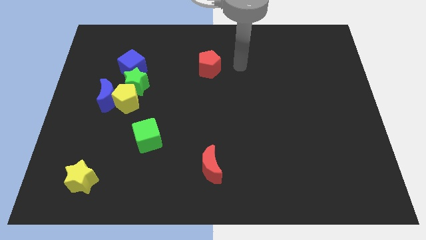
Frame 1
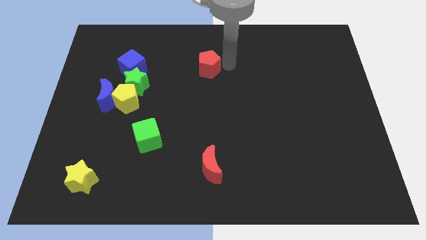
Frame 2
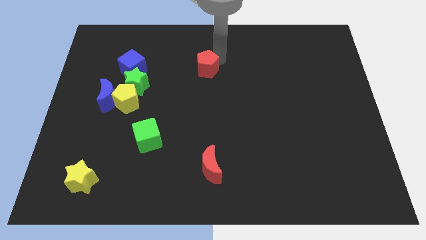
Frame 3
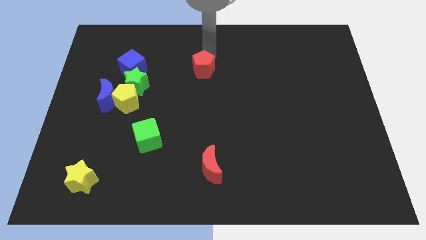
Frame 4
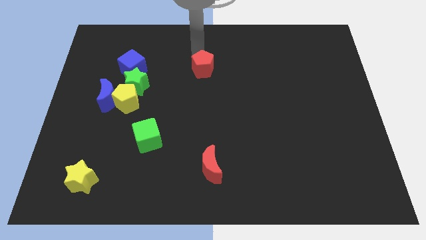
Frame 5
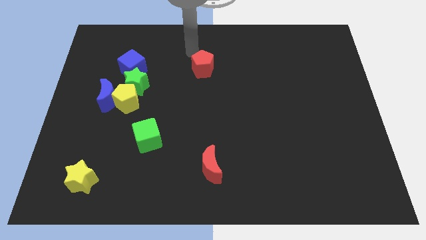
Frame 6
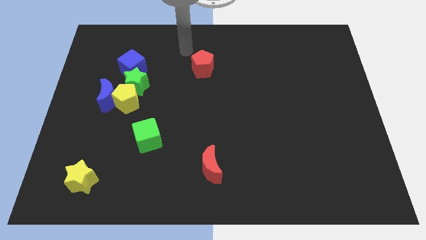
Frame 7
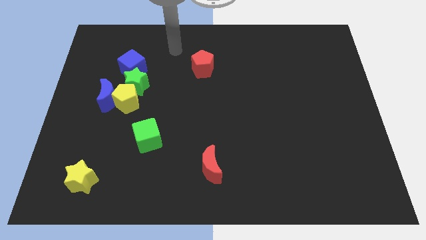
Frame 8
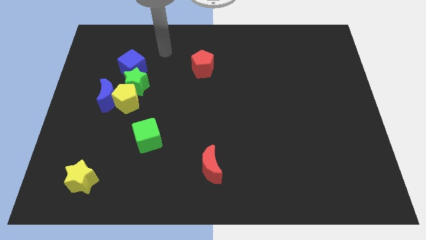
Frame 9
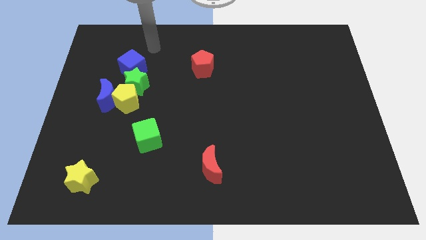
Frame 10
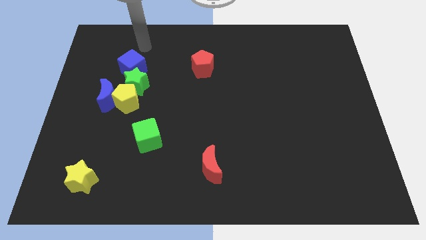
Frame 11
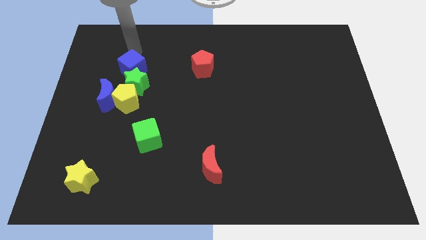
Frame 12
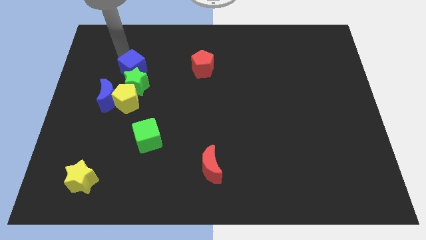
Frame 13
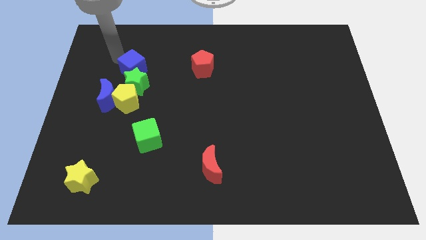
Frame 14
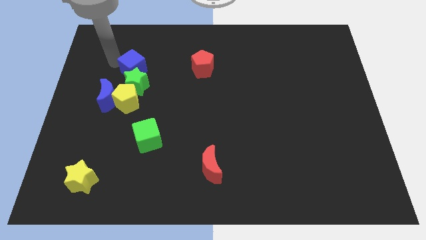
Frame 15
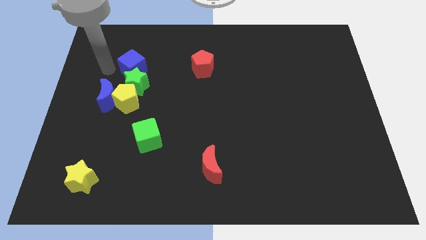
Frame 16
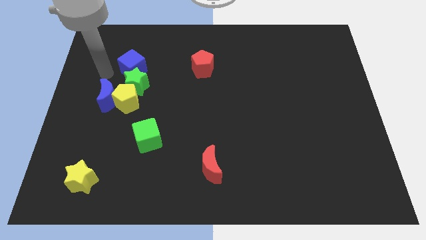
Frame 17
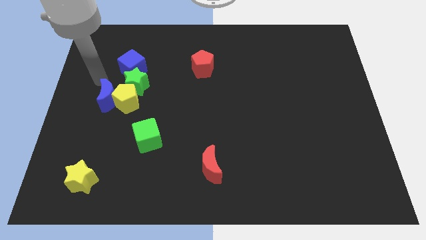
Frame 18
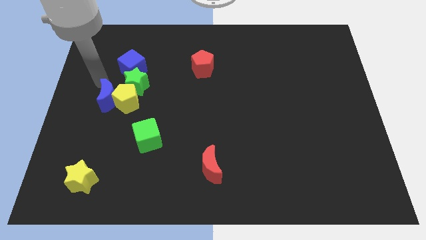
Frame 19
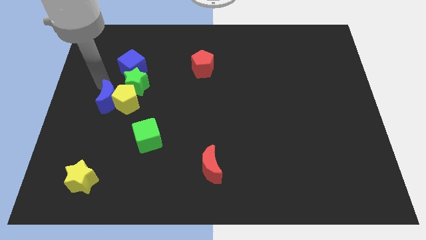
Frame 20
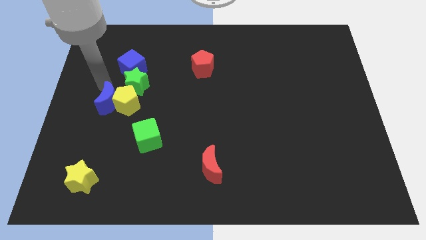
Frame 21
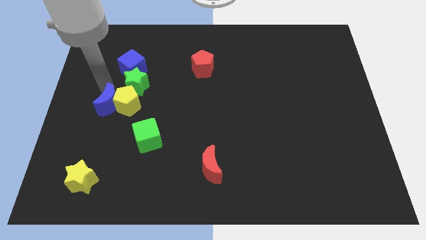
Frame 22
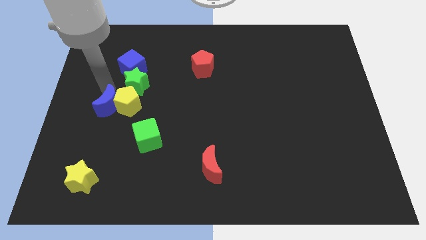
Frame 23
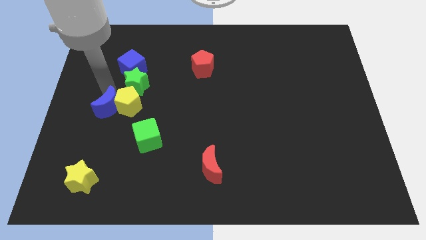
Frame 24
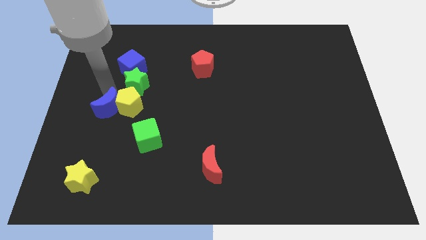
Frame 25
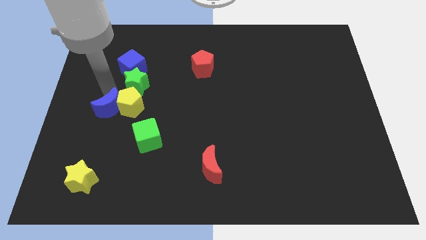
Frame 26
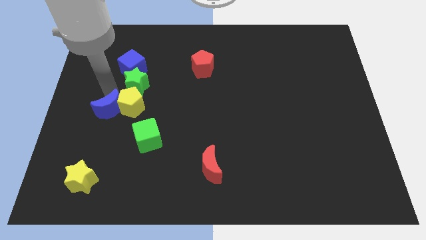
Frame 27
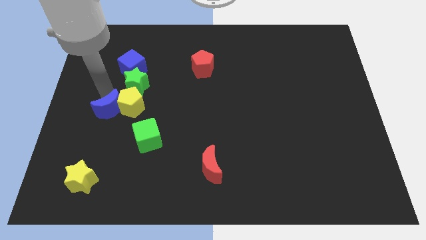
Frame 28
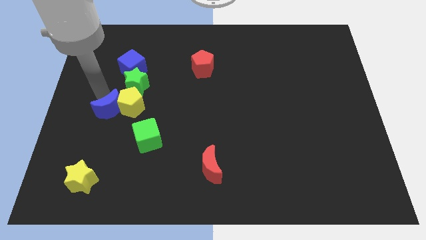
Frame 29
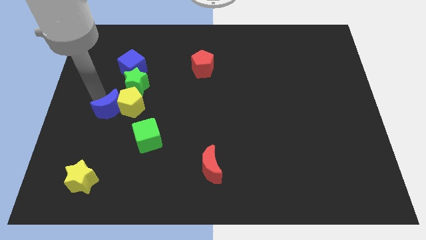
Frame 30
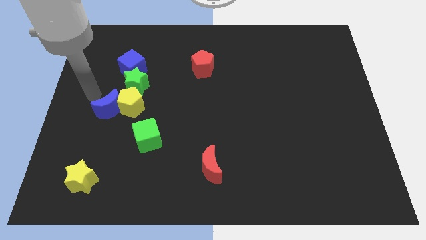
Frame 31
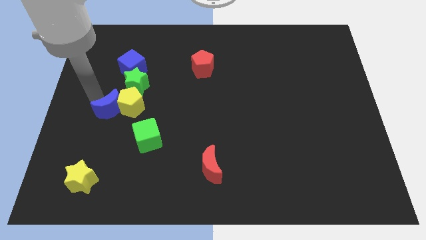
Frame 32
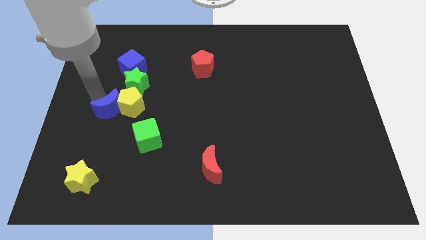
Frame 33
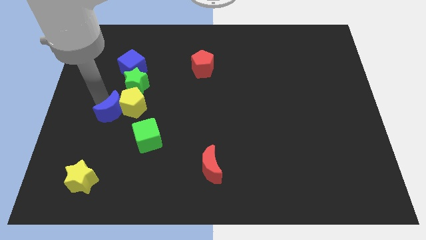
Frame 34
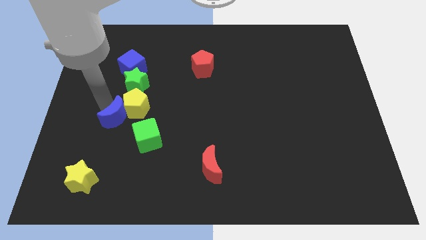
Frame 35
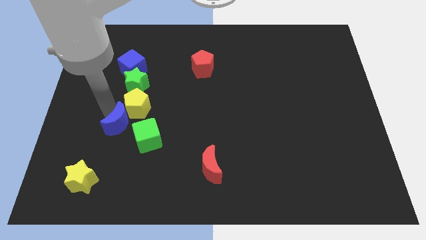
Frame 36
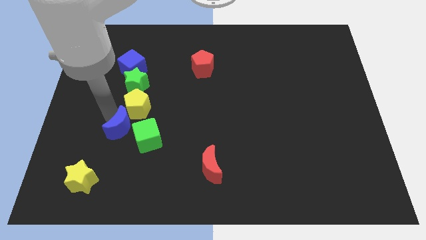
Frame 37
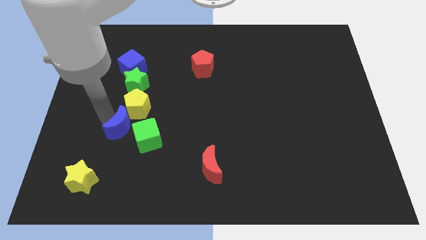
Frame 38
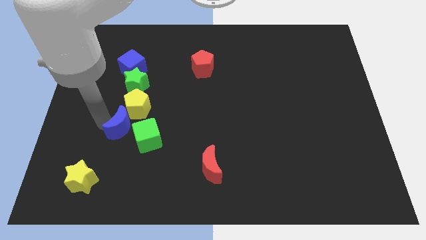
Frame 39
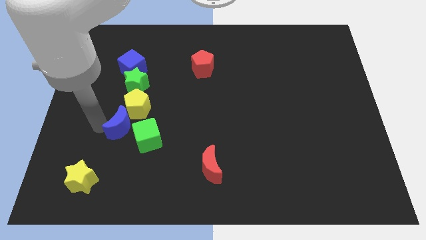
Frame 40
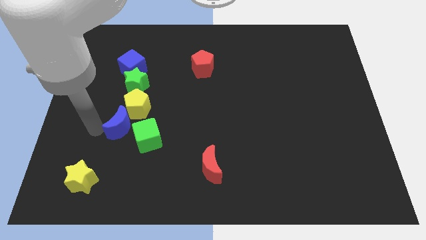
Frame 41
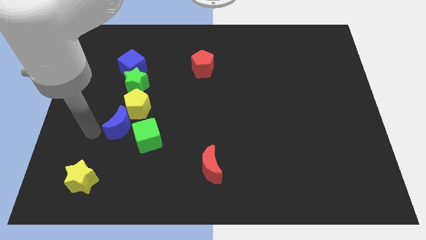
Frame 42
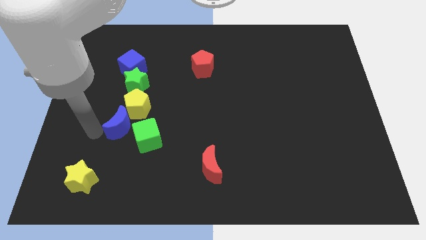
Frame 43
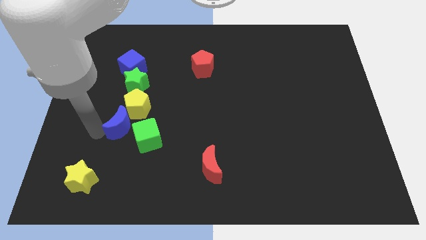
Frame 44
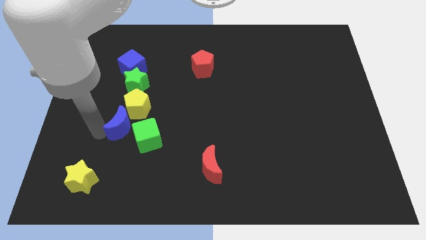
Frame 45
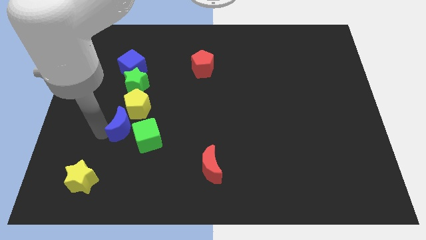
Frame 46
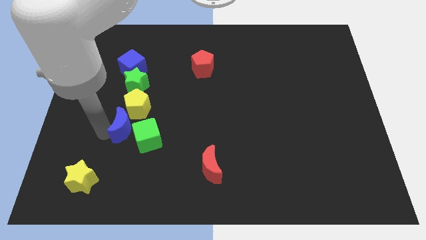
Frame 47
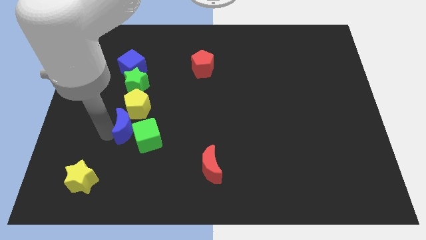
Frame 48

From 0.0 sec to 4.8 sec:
push the blue moon towards the green cube

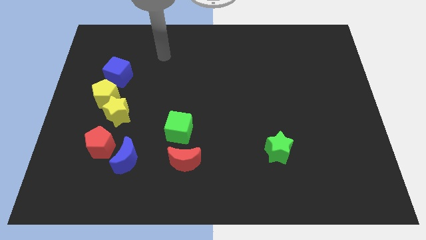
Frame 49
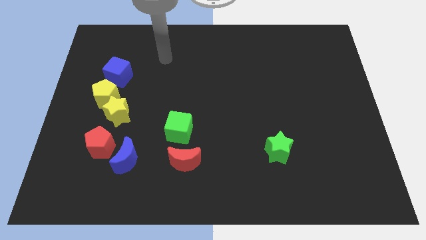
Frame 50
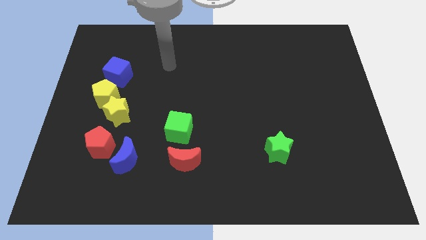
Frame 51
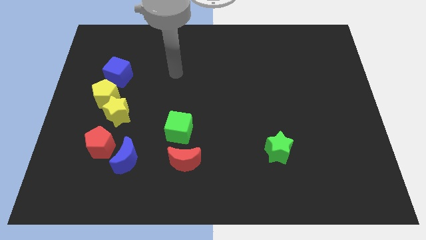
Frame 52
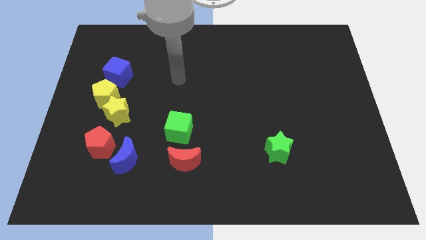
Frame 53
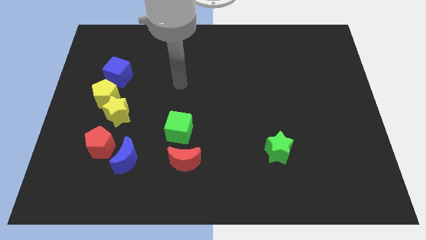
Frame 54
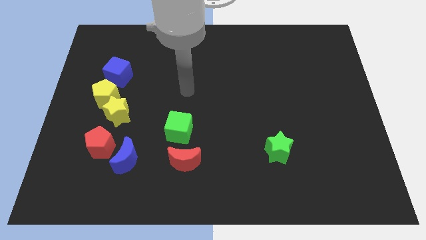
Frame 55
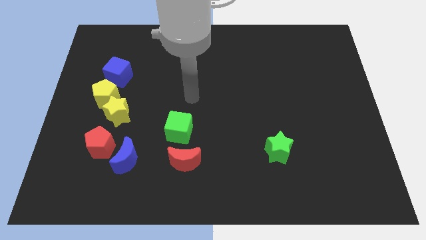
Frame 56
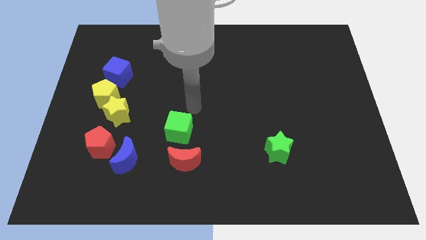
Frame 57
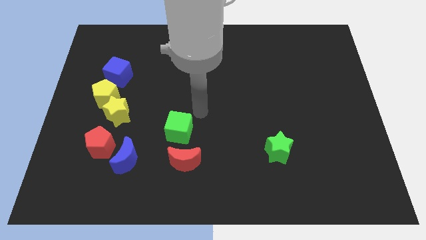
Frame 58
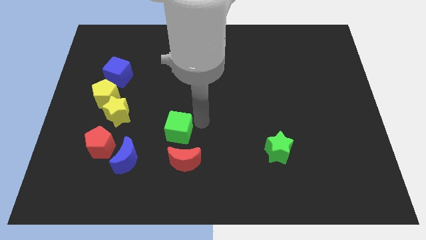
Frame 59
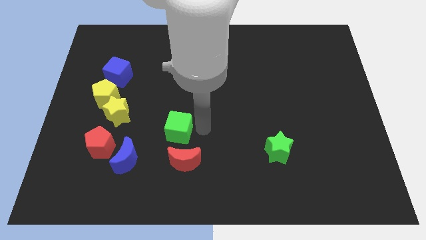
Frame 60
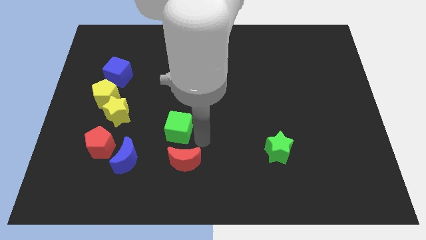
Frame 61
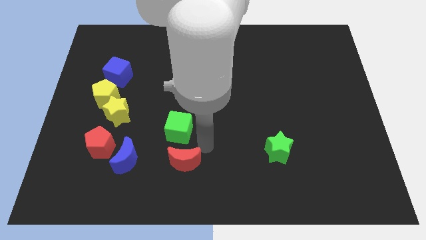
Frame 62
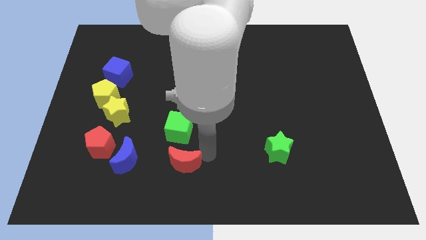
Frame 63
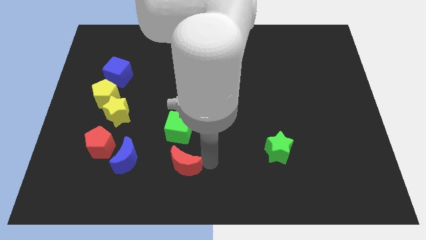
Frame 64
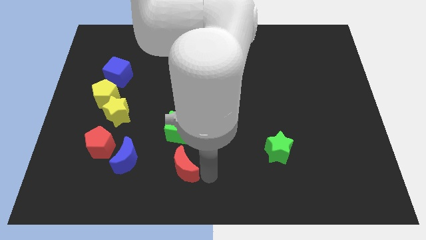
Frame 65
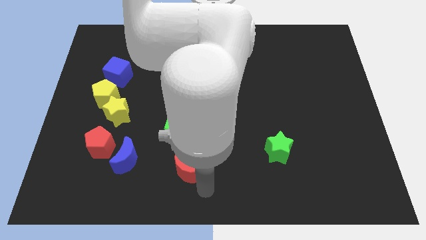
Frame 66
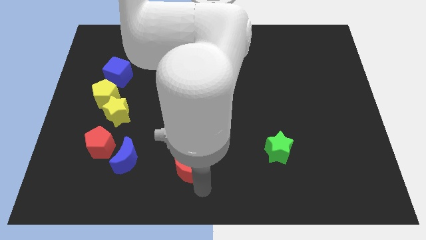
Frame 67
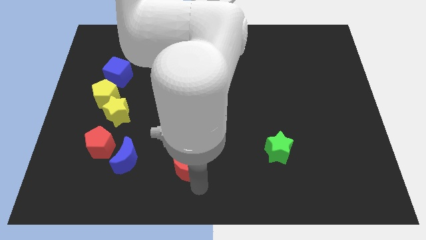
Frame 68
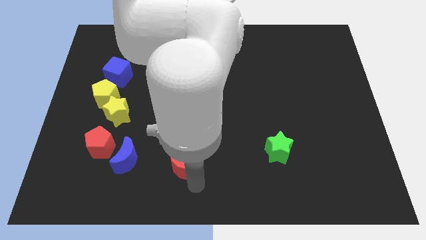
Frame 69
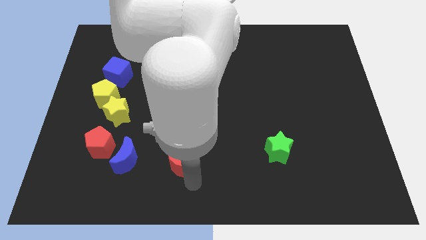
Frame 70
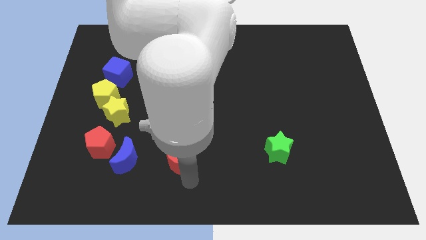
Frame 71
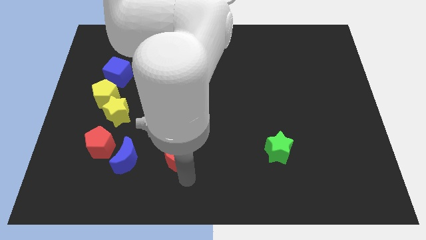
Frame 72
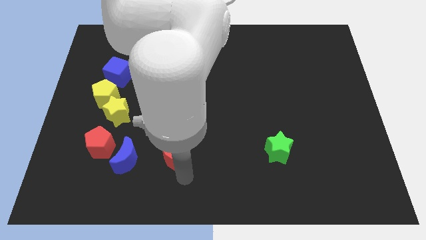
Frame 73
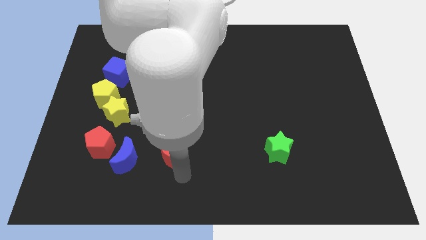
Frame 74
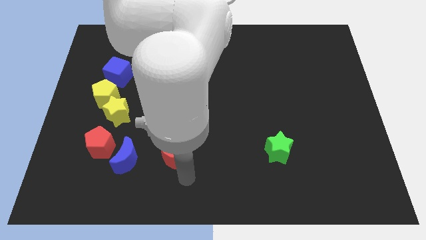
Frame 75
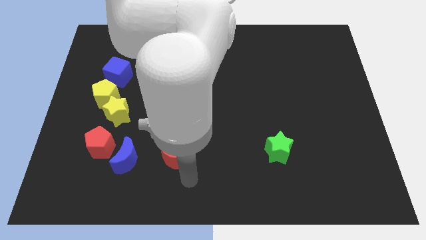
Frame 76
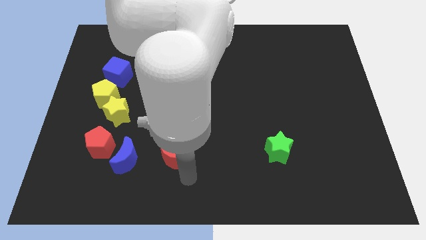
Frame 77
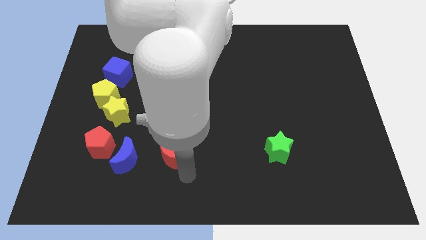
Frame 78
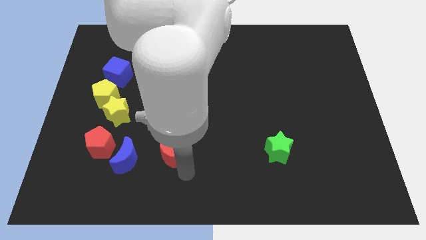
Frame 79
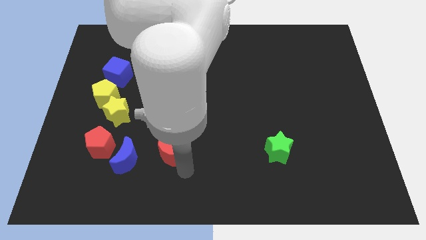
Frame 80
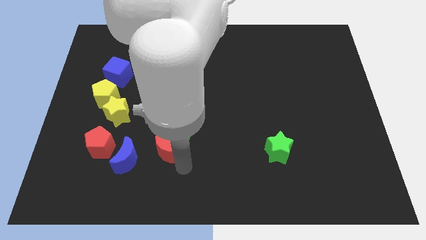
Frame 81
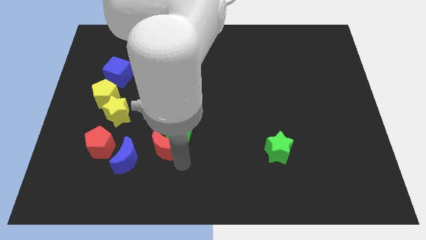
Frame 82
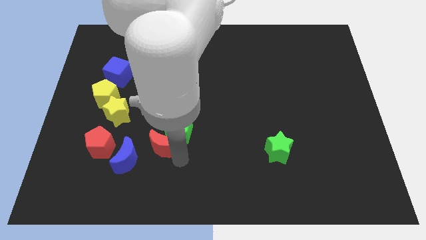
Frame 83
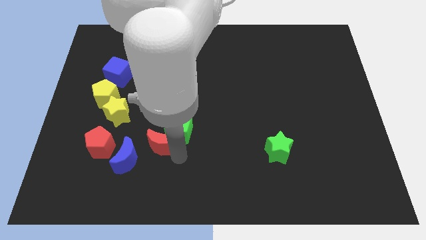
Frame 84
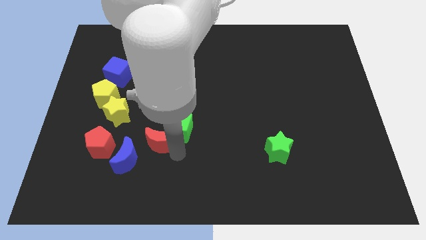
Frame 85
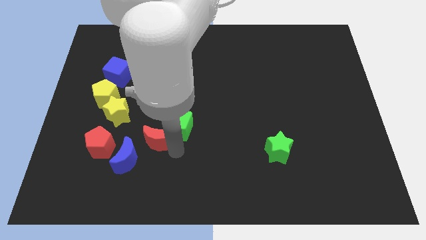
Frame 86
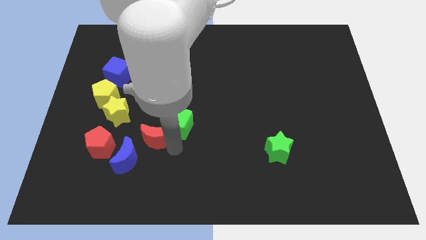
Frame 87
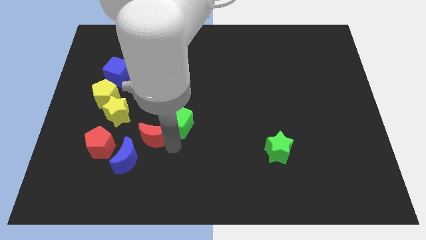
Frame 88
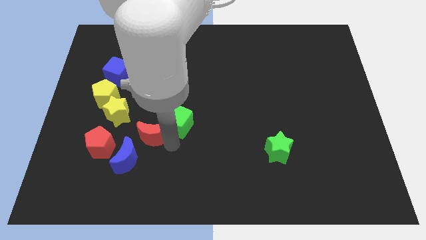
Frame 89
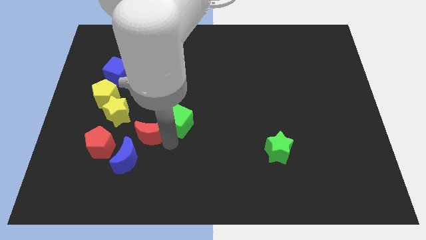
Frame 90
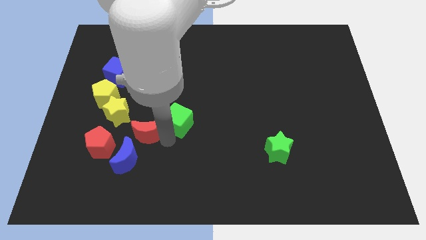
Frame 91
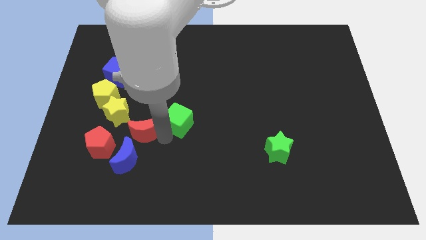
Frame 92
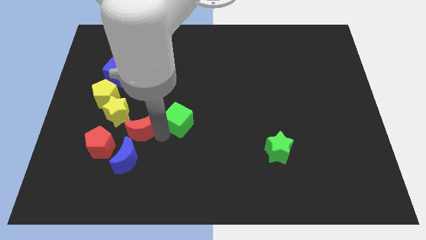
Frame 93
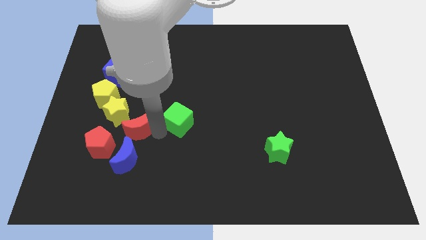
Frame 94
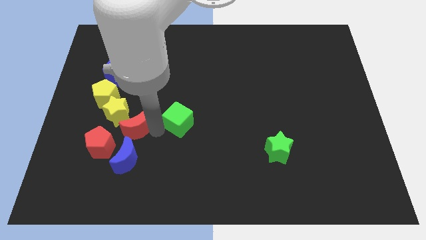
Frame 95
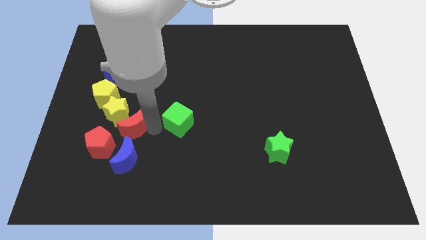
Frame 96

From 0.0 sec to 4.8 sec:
slide the red moon close to the yellow star
